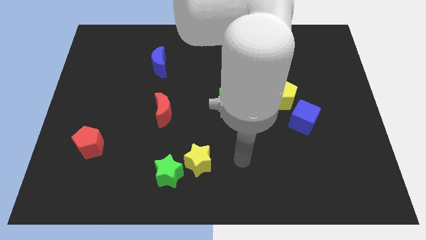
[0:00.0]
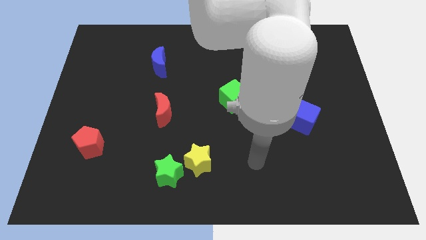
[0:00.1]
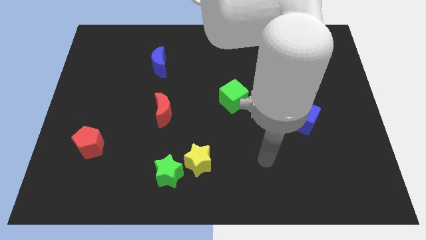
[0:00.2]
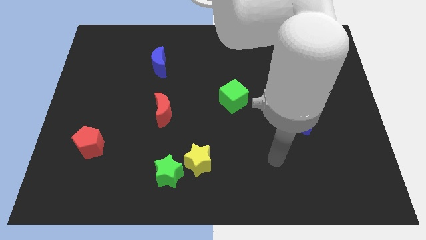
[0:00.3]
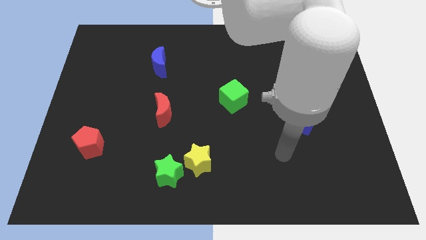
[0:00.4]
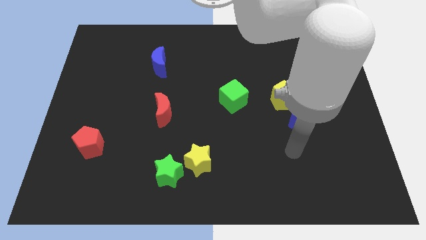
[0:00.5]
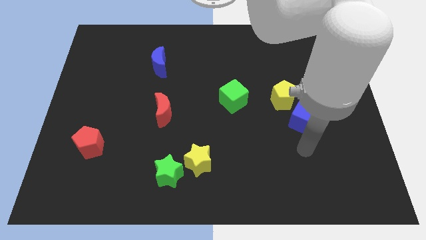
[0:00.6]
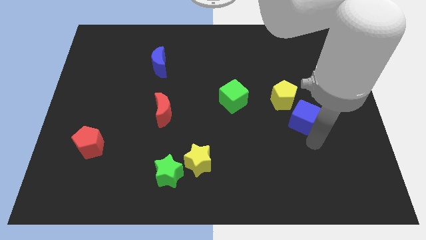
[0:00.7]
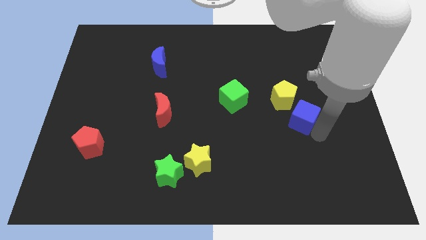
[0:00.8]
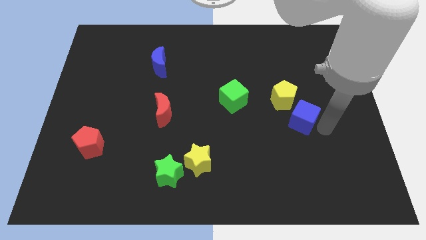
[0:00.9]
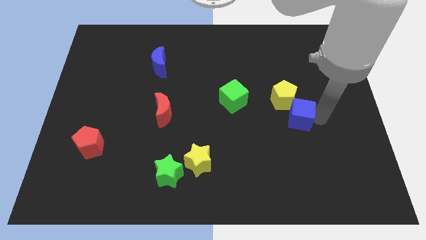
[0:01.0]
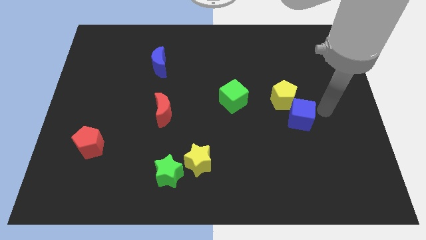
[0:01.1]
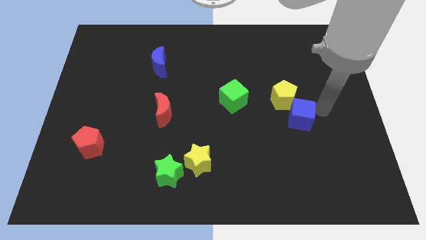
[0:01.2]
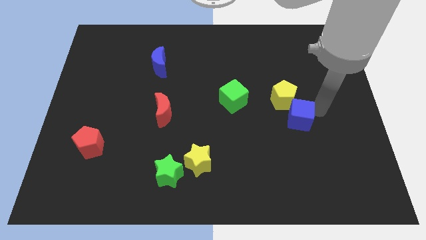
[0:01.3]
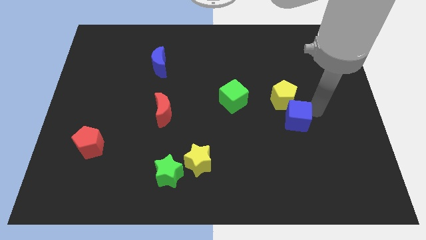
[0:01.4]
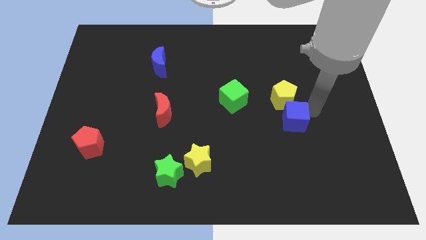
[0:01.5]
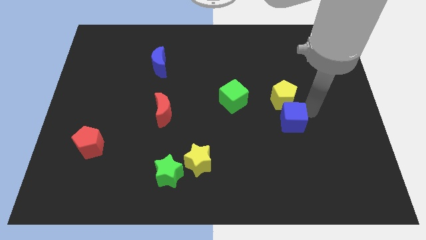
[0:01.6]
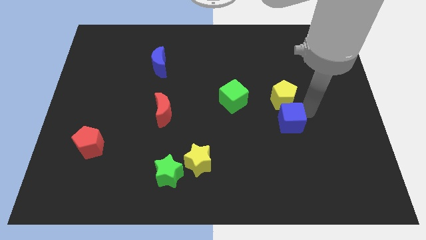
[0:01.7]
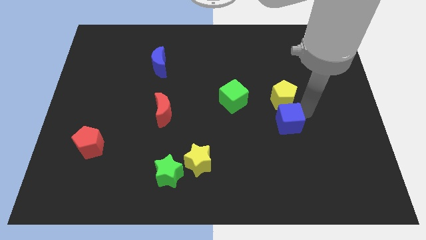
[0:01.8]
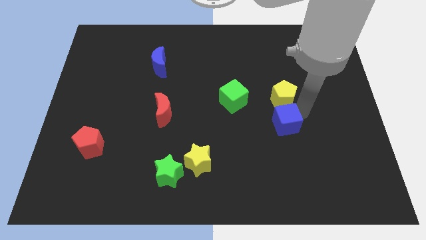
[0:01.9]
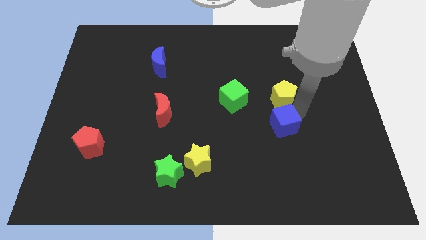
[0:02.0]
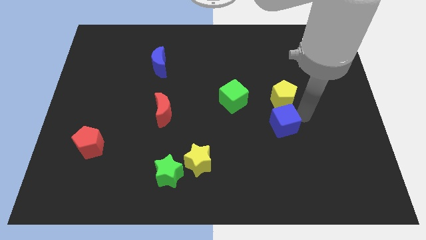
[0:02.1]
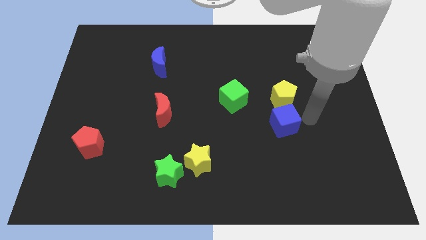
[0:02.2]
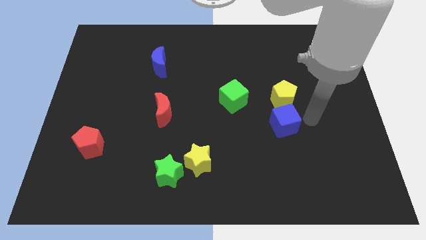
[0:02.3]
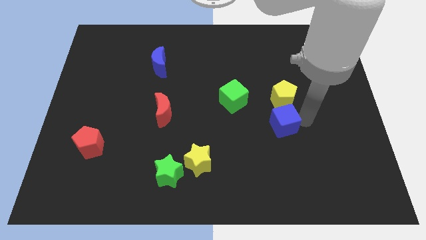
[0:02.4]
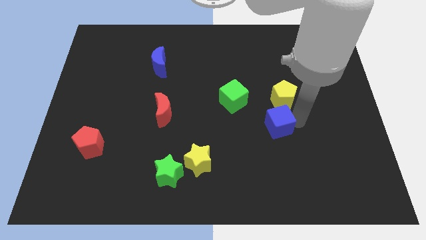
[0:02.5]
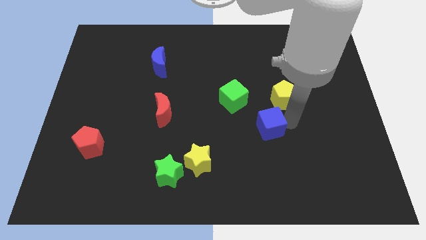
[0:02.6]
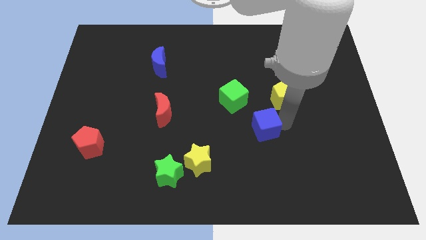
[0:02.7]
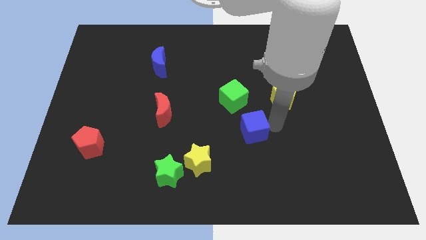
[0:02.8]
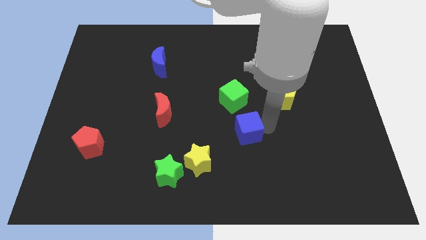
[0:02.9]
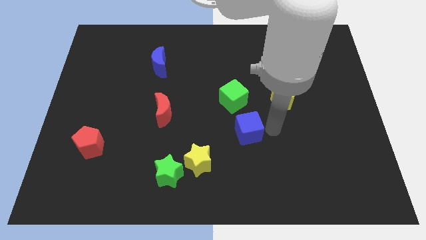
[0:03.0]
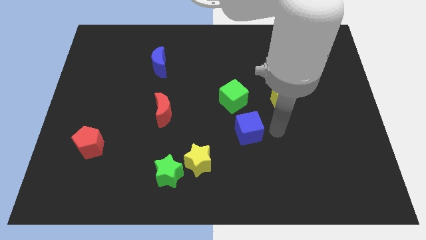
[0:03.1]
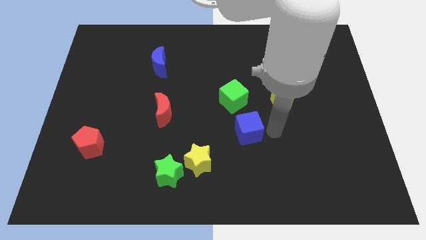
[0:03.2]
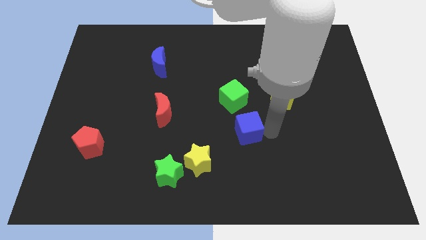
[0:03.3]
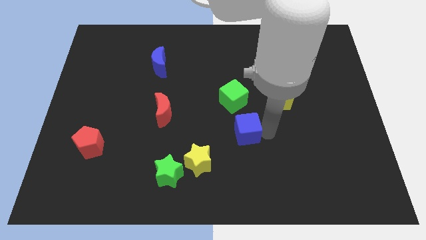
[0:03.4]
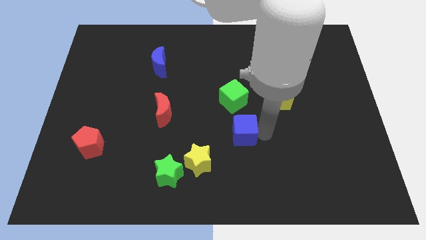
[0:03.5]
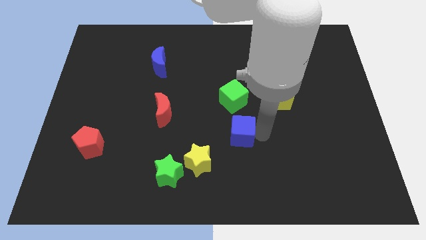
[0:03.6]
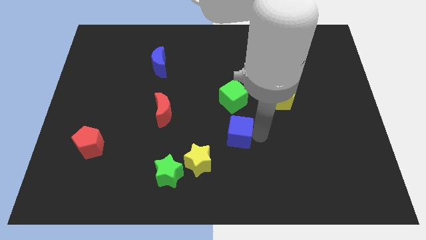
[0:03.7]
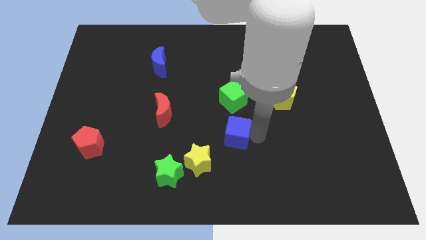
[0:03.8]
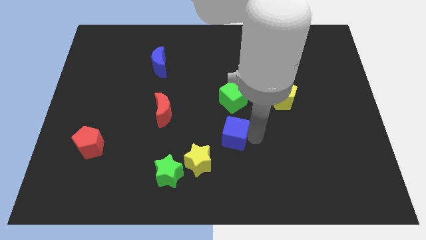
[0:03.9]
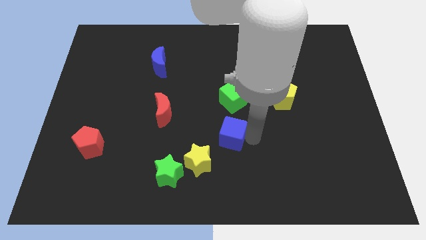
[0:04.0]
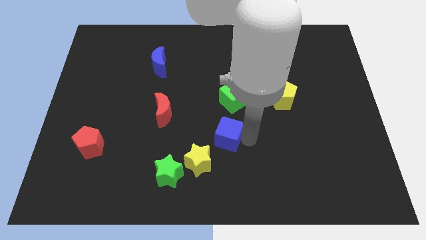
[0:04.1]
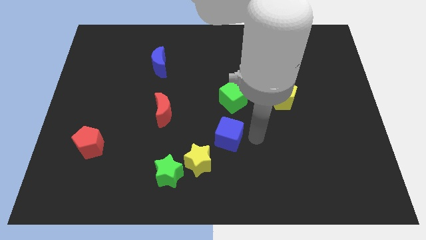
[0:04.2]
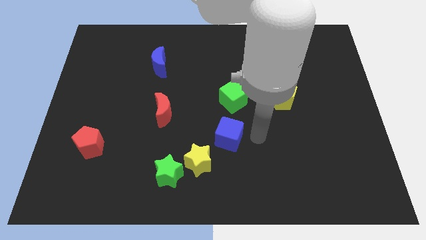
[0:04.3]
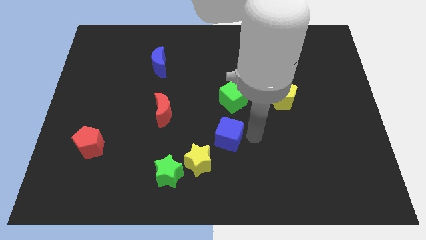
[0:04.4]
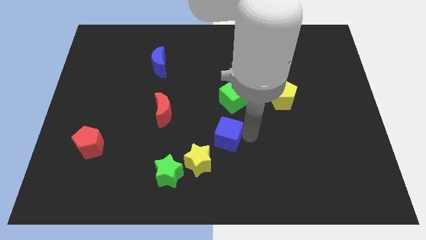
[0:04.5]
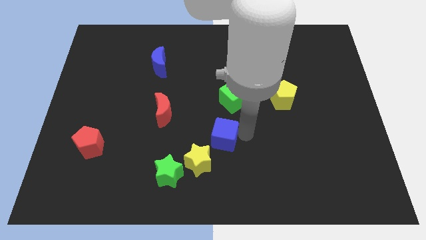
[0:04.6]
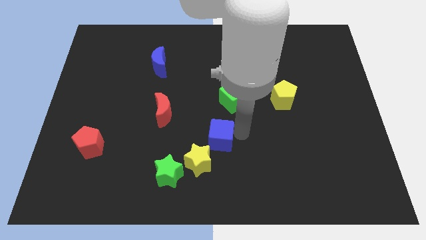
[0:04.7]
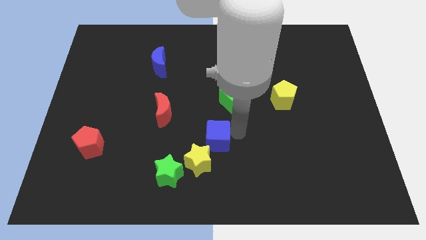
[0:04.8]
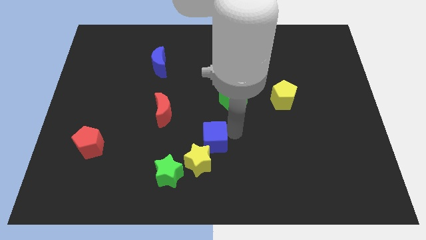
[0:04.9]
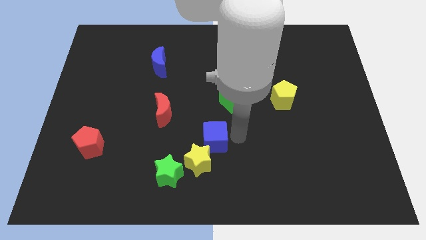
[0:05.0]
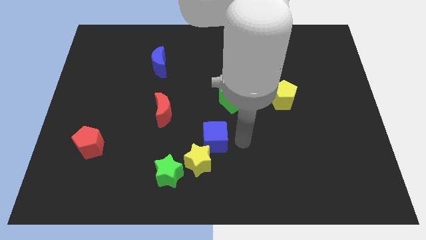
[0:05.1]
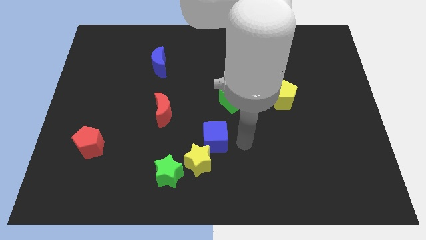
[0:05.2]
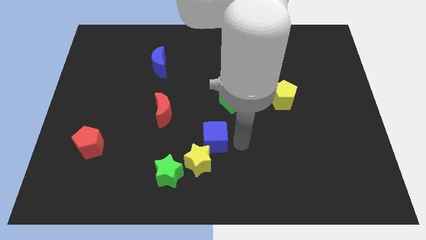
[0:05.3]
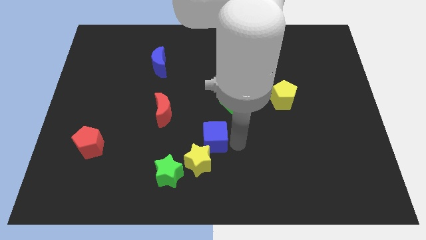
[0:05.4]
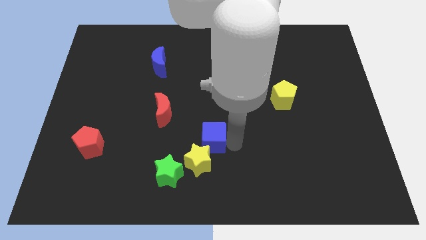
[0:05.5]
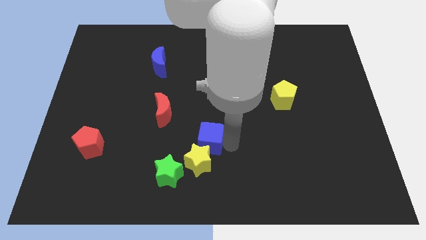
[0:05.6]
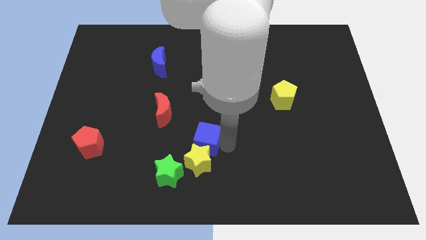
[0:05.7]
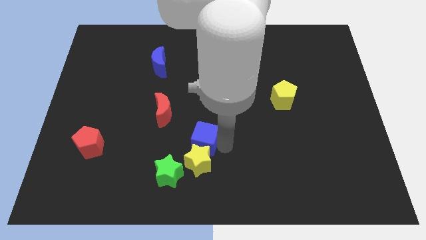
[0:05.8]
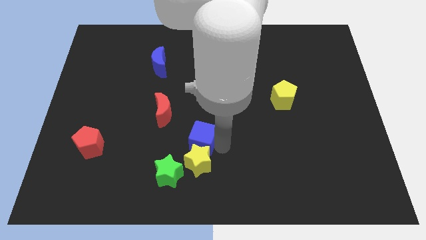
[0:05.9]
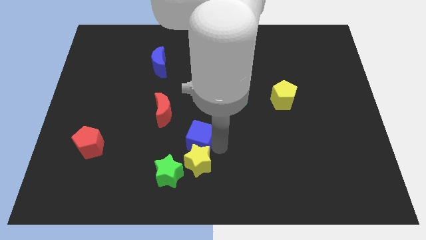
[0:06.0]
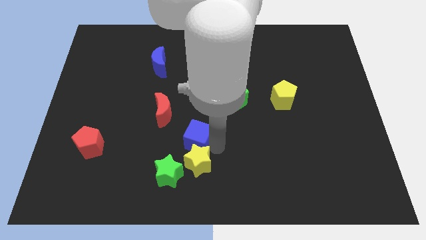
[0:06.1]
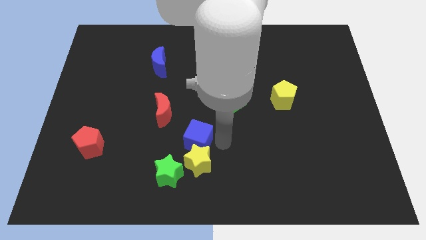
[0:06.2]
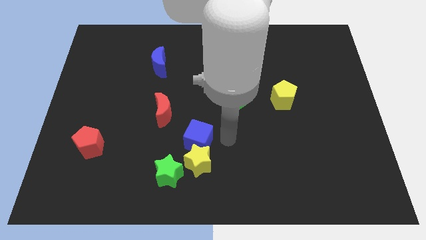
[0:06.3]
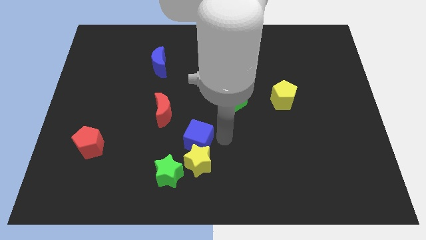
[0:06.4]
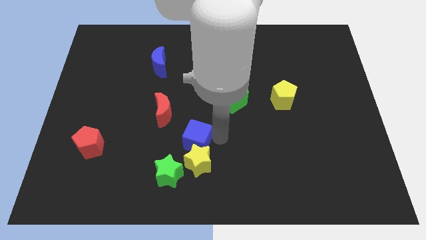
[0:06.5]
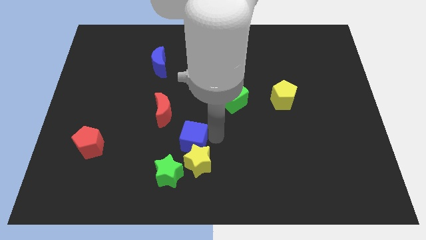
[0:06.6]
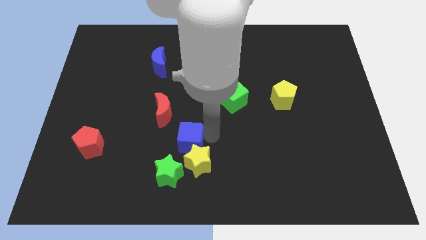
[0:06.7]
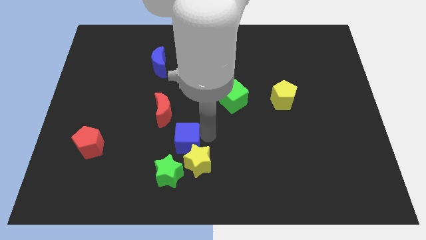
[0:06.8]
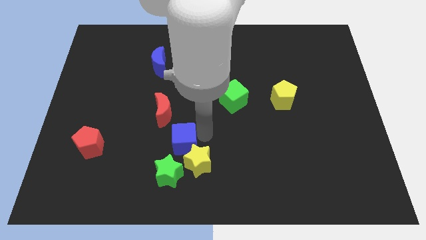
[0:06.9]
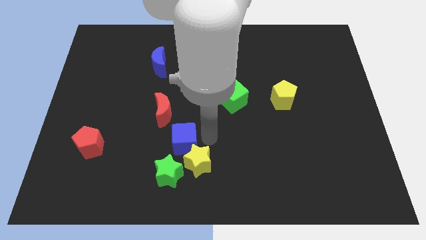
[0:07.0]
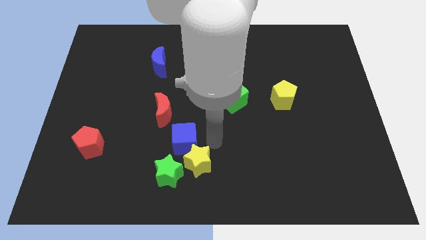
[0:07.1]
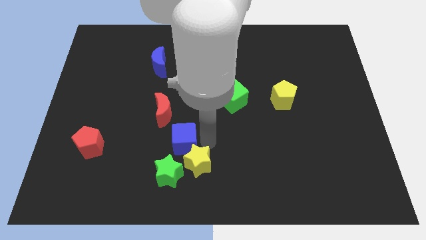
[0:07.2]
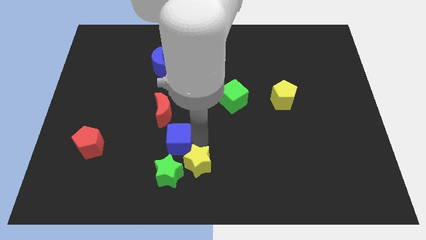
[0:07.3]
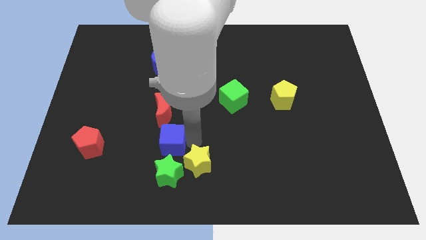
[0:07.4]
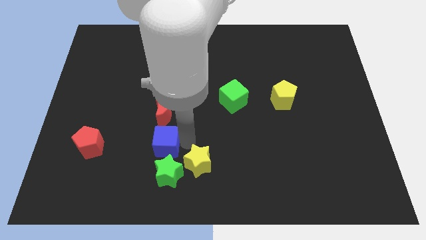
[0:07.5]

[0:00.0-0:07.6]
push the blue cube to the right of the red pentagon

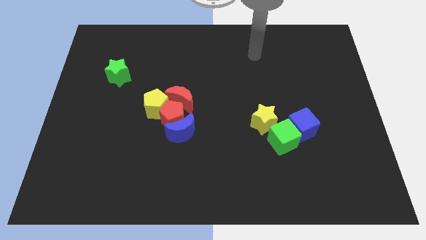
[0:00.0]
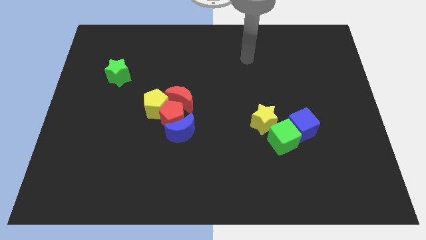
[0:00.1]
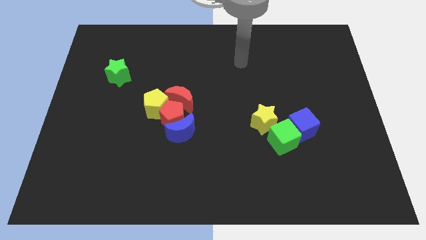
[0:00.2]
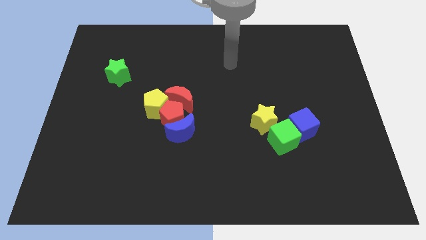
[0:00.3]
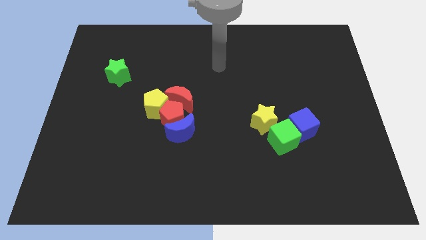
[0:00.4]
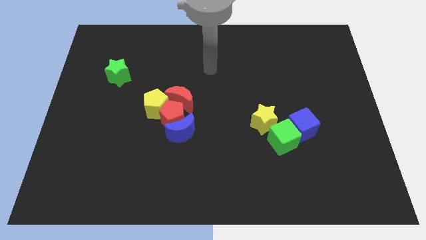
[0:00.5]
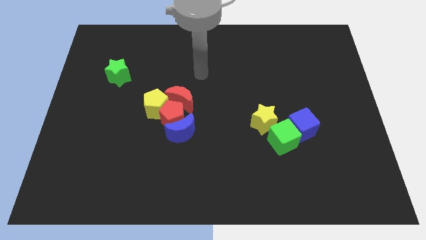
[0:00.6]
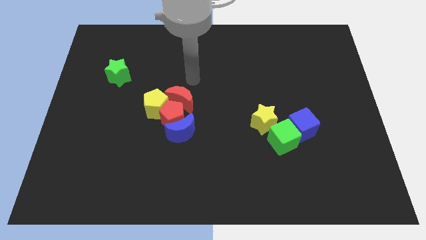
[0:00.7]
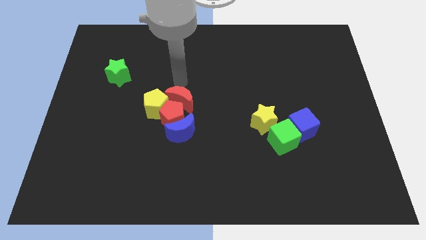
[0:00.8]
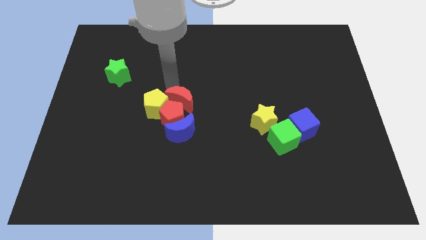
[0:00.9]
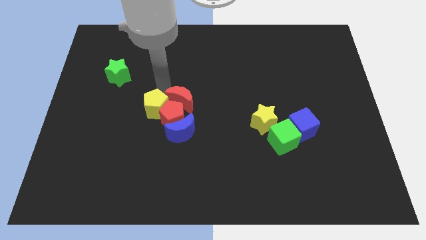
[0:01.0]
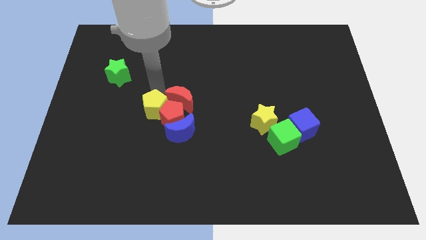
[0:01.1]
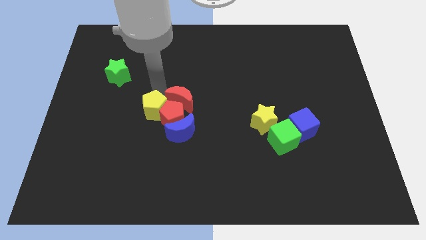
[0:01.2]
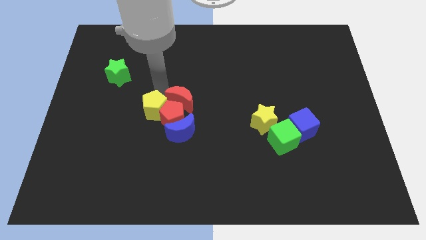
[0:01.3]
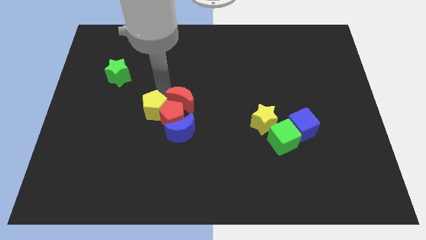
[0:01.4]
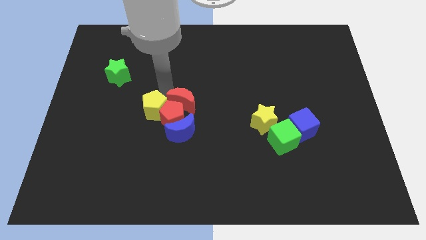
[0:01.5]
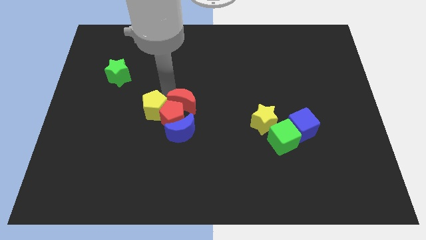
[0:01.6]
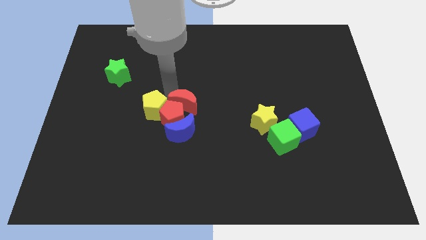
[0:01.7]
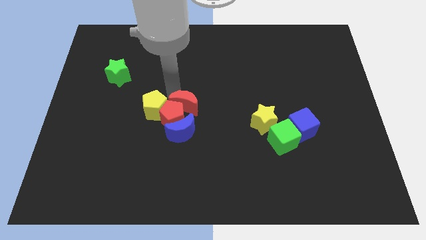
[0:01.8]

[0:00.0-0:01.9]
slide the red moon to the right of the red pentagon
